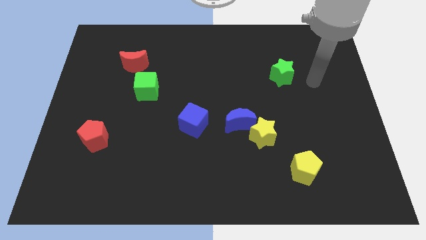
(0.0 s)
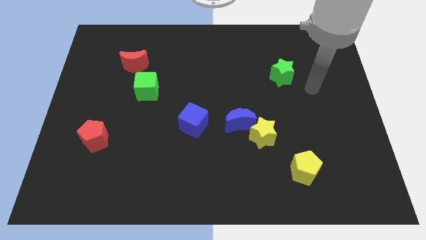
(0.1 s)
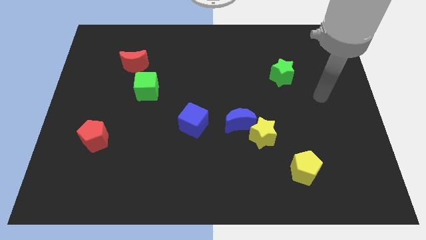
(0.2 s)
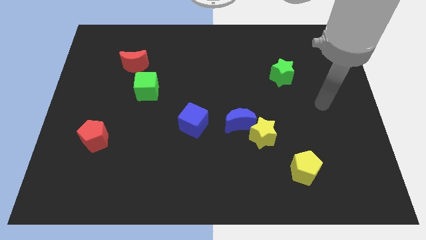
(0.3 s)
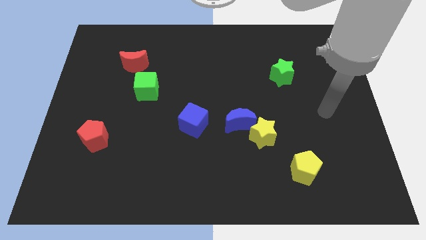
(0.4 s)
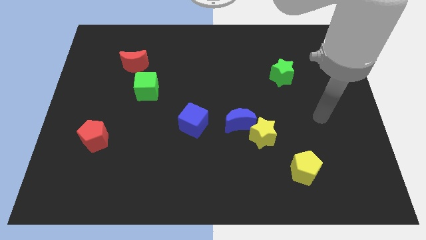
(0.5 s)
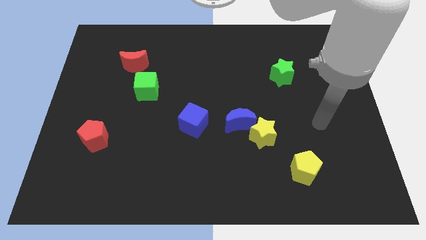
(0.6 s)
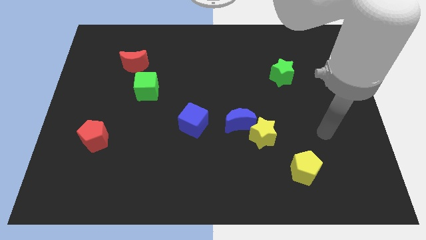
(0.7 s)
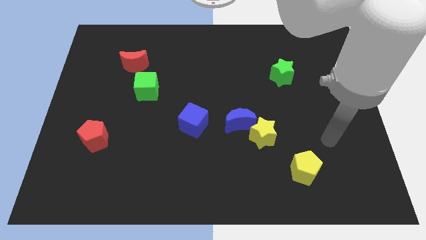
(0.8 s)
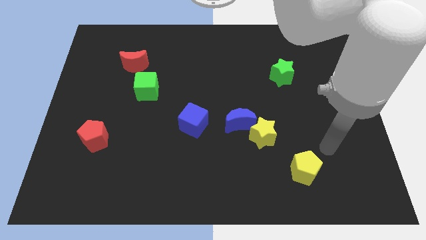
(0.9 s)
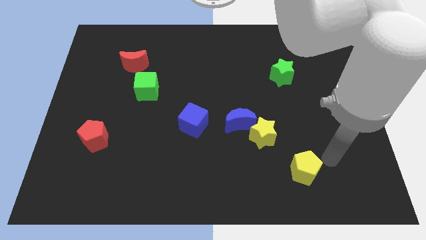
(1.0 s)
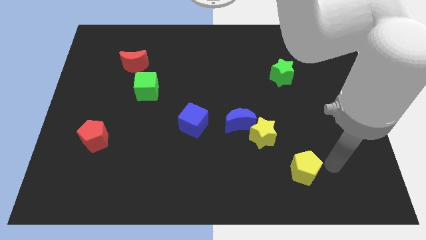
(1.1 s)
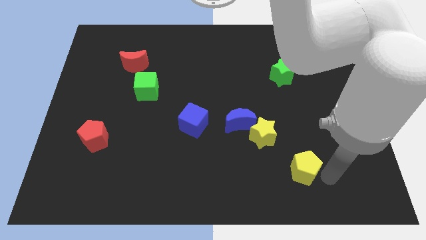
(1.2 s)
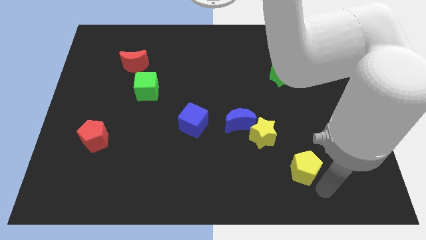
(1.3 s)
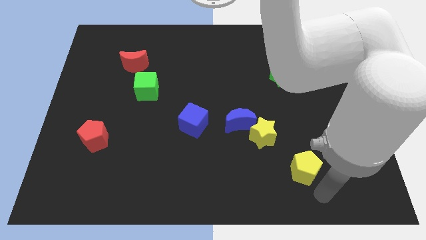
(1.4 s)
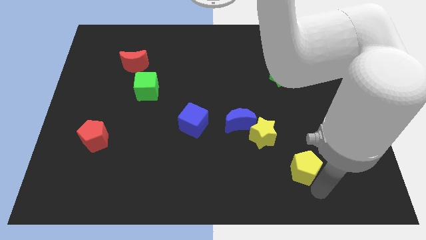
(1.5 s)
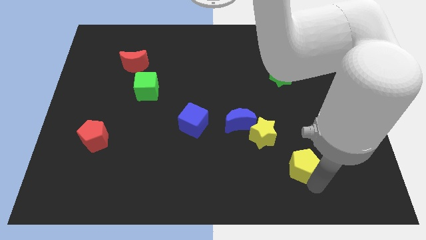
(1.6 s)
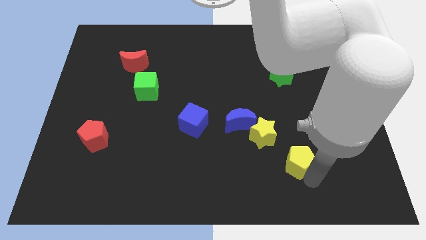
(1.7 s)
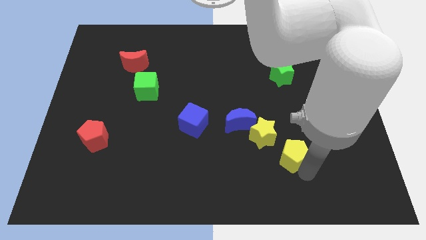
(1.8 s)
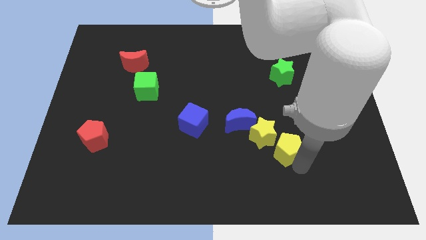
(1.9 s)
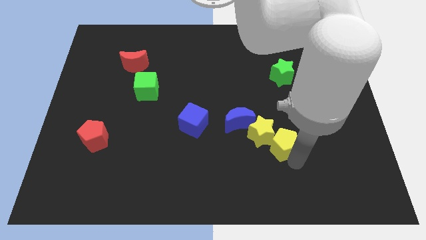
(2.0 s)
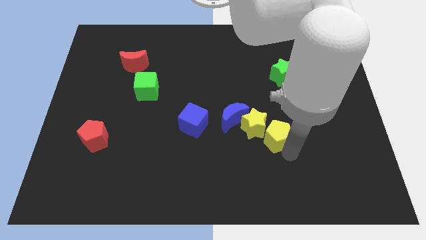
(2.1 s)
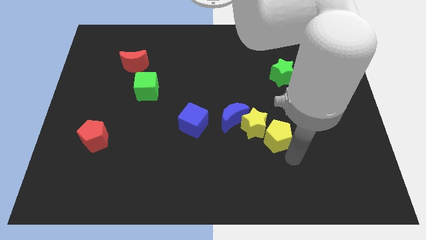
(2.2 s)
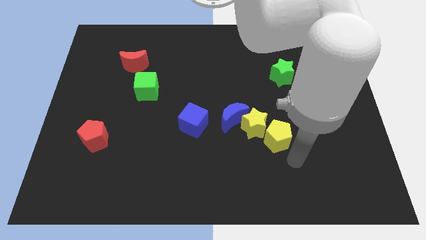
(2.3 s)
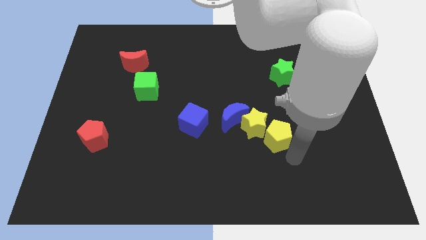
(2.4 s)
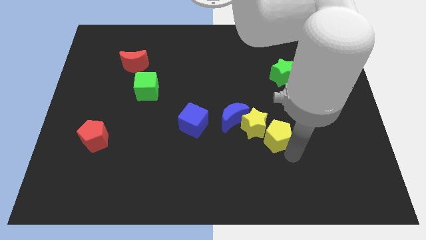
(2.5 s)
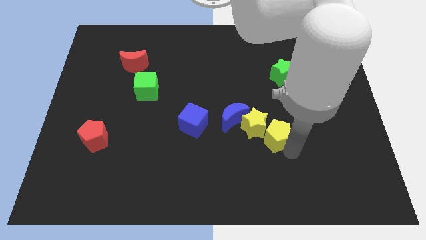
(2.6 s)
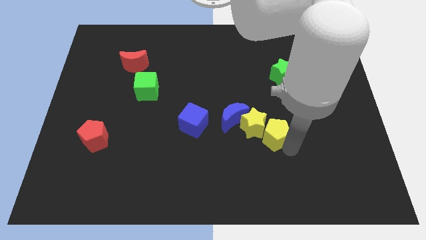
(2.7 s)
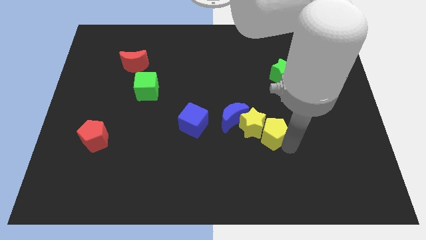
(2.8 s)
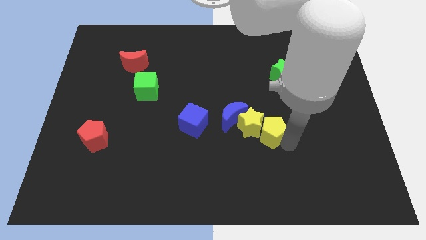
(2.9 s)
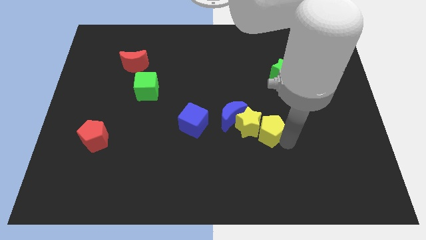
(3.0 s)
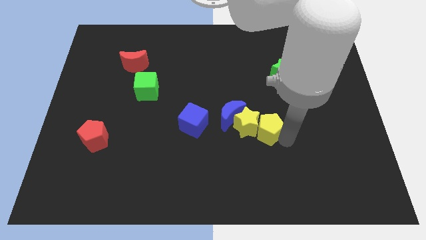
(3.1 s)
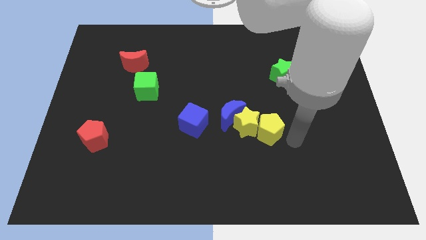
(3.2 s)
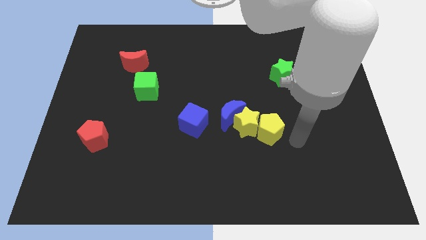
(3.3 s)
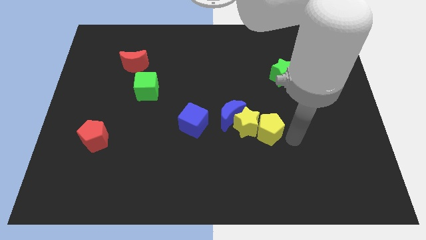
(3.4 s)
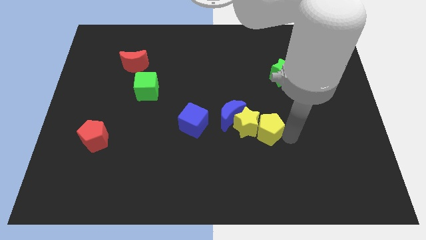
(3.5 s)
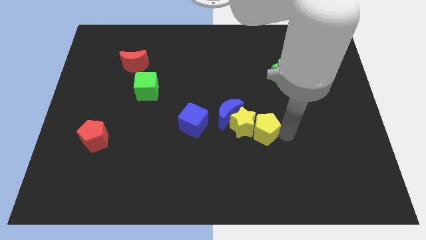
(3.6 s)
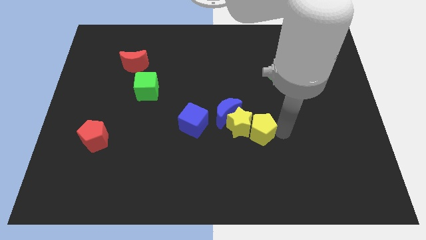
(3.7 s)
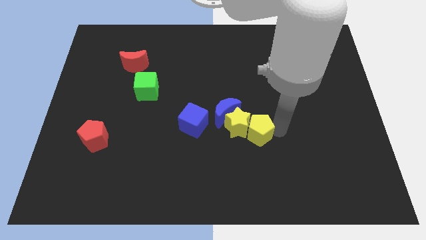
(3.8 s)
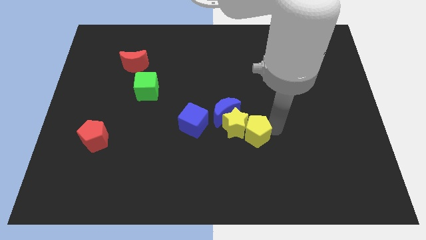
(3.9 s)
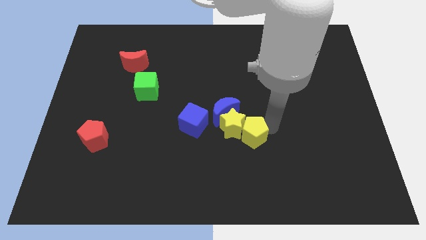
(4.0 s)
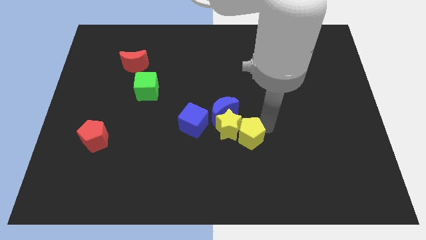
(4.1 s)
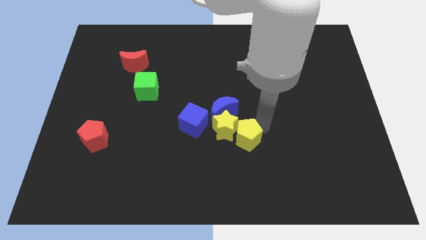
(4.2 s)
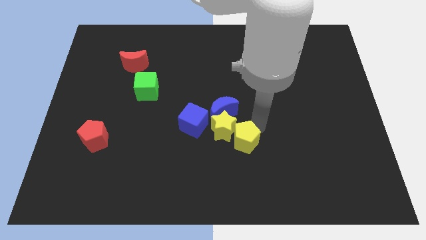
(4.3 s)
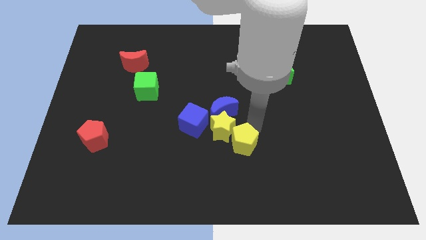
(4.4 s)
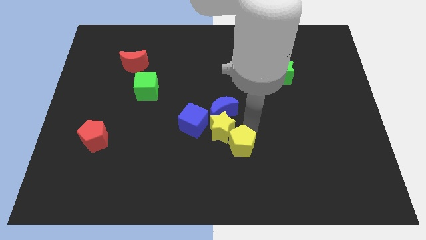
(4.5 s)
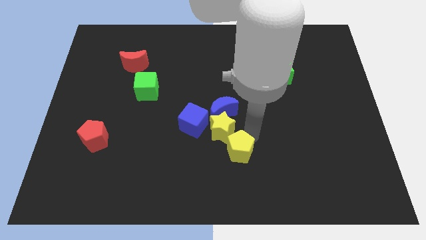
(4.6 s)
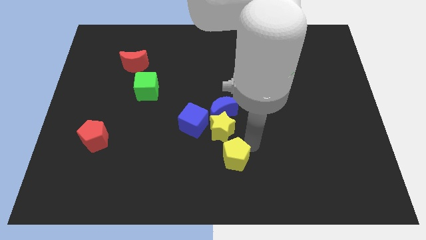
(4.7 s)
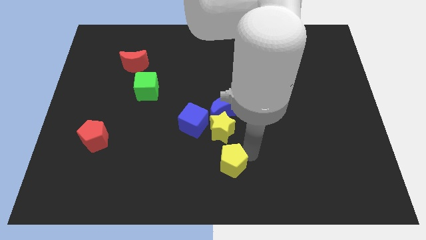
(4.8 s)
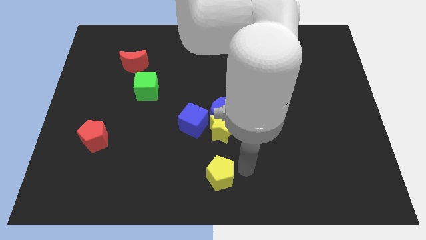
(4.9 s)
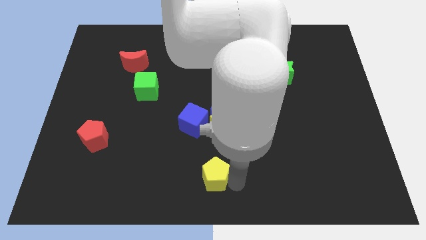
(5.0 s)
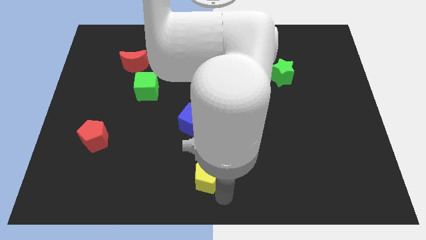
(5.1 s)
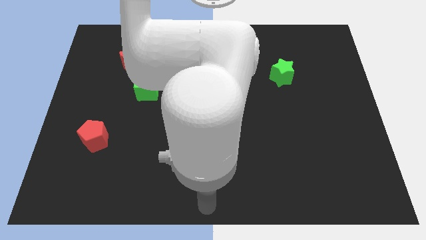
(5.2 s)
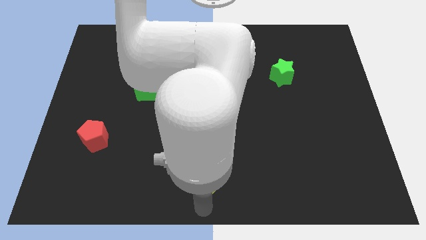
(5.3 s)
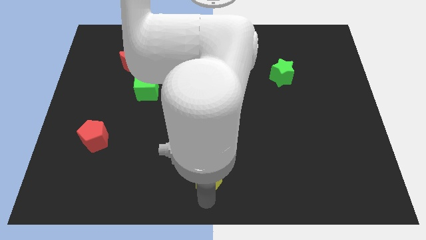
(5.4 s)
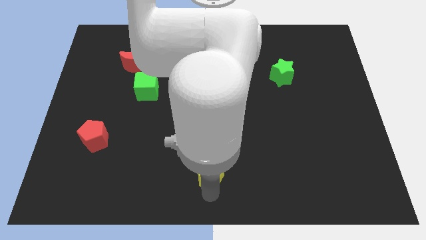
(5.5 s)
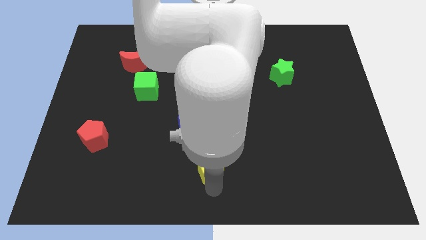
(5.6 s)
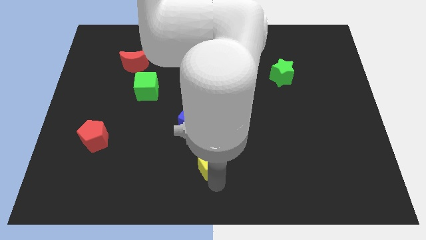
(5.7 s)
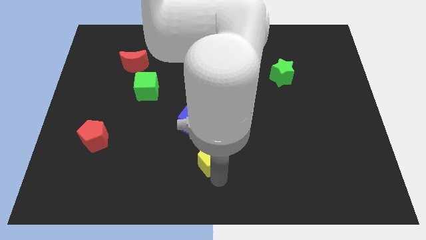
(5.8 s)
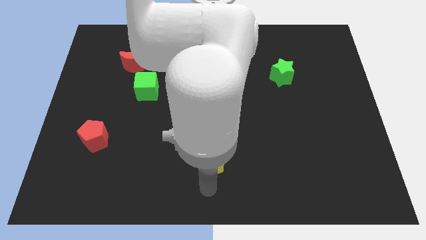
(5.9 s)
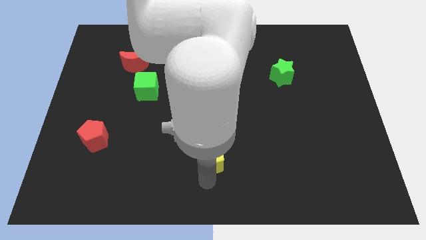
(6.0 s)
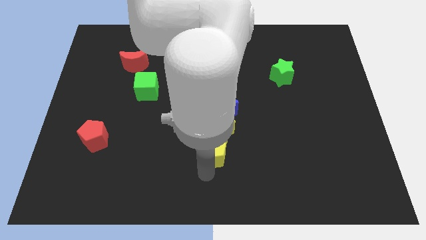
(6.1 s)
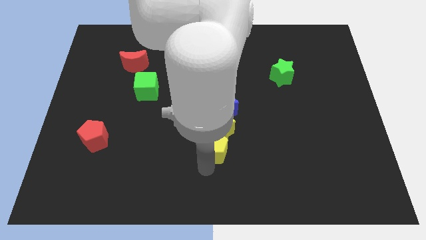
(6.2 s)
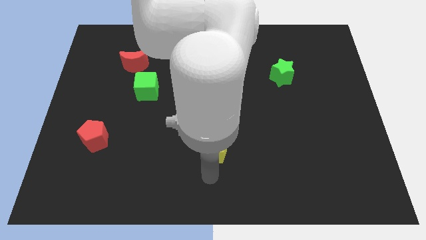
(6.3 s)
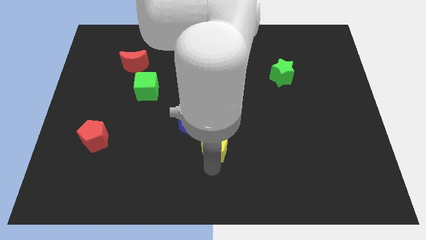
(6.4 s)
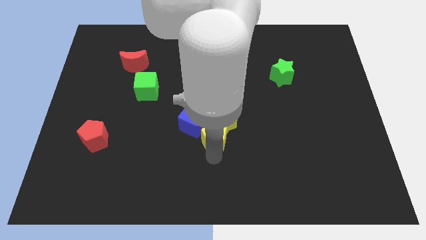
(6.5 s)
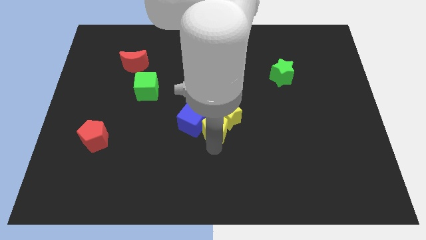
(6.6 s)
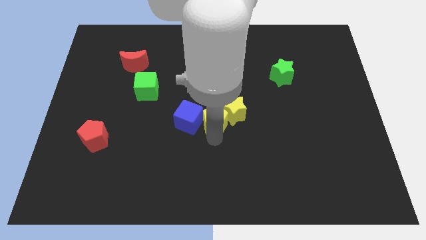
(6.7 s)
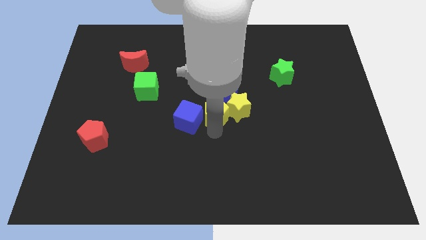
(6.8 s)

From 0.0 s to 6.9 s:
push the yellow pentagon next to the blue moon

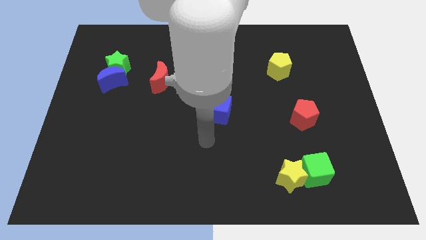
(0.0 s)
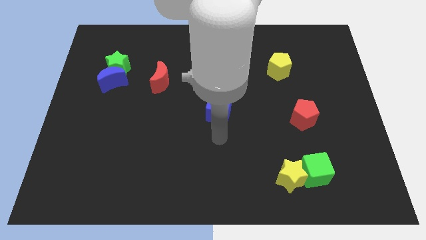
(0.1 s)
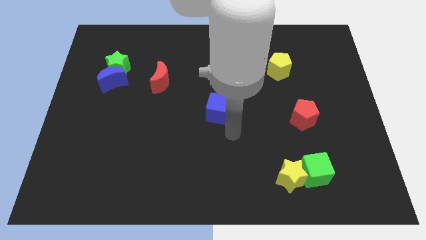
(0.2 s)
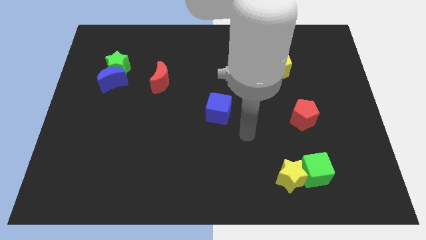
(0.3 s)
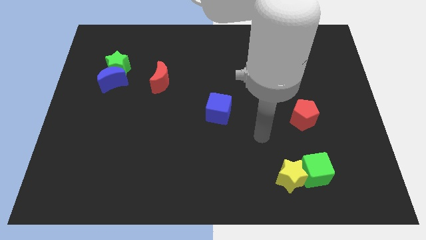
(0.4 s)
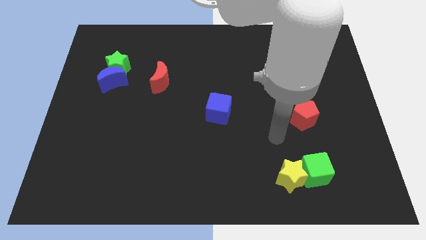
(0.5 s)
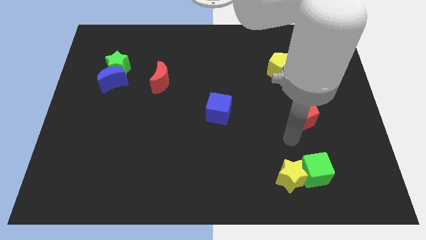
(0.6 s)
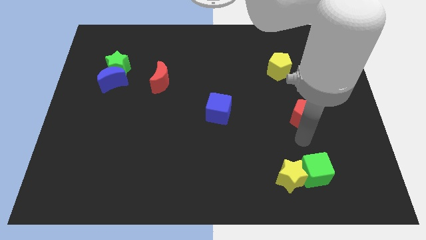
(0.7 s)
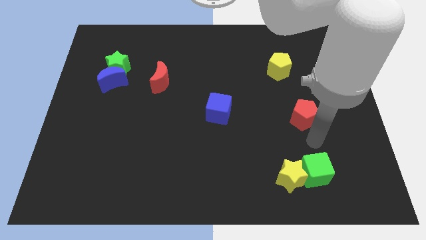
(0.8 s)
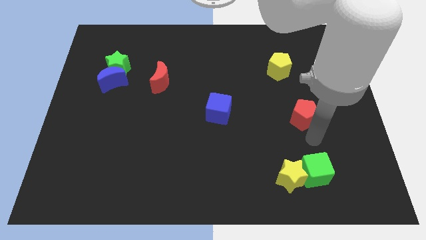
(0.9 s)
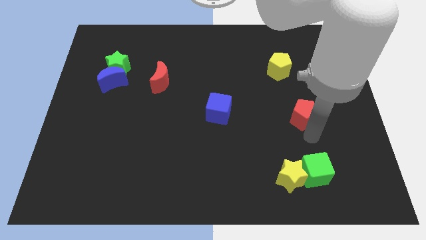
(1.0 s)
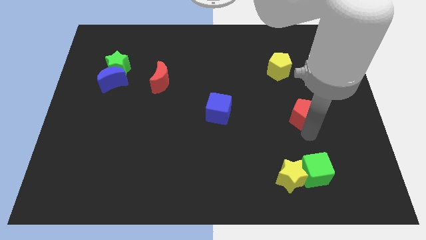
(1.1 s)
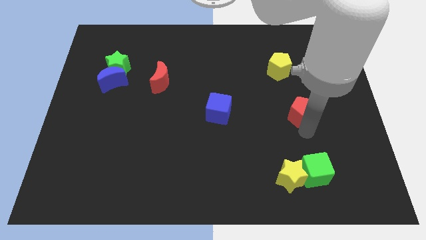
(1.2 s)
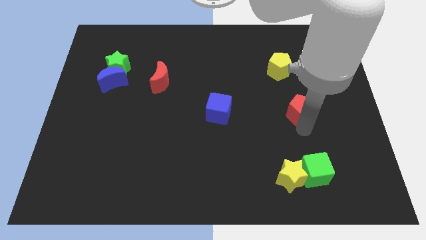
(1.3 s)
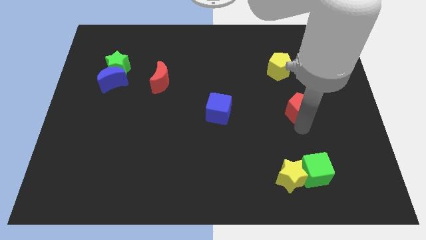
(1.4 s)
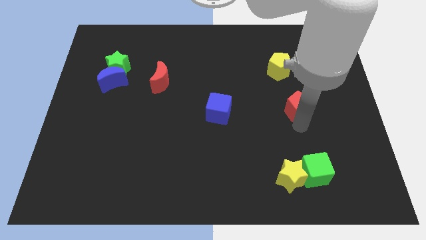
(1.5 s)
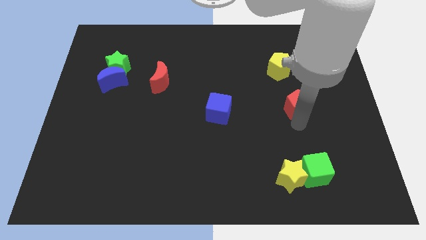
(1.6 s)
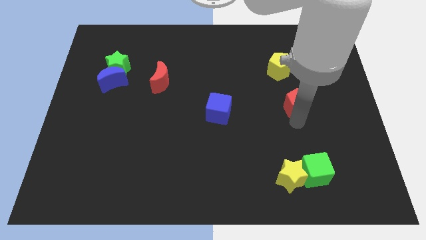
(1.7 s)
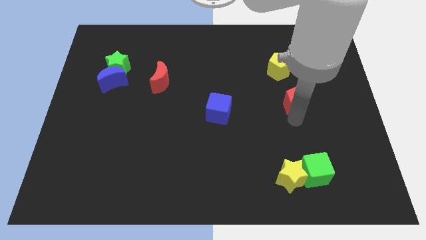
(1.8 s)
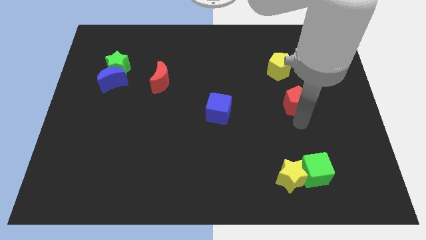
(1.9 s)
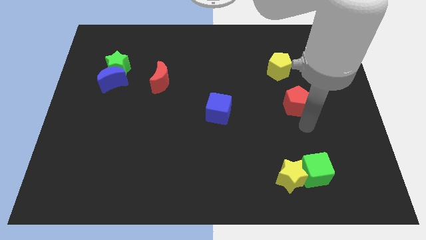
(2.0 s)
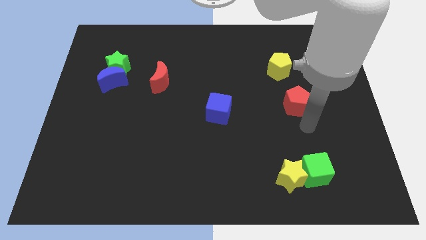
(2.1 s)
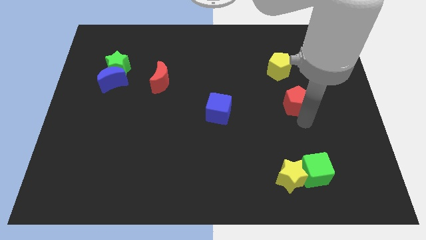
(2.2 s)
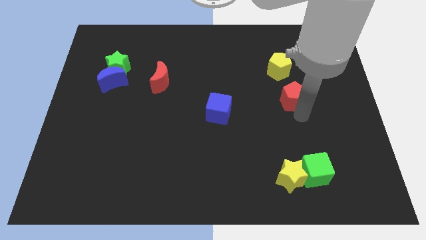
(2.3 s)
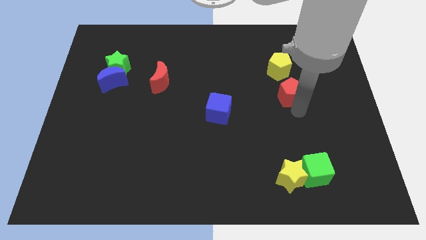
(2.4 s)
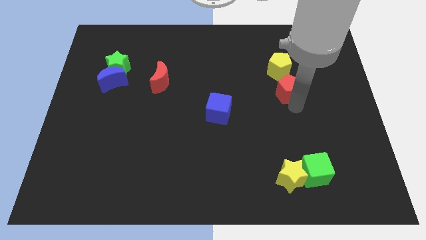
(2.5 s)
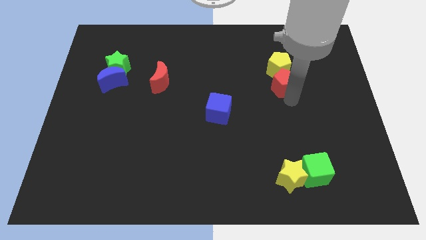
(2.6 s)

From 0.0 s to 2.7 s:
move the red pentagon towards the yellow pentagon
